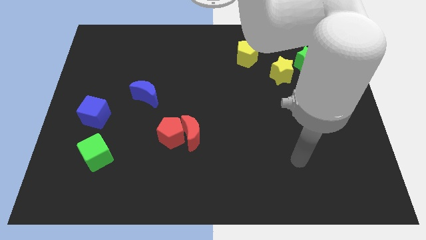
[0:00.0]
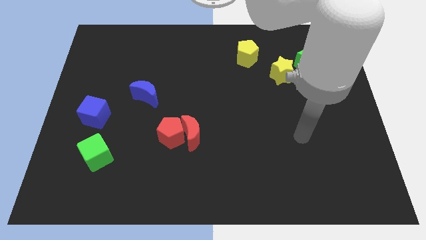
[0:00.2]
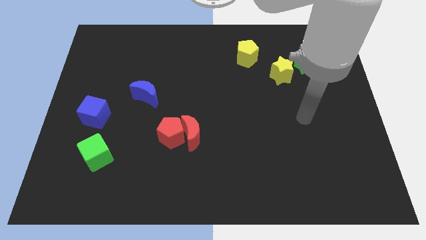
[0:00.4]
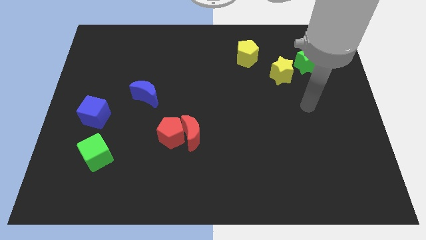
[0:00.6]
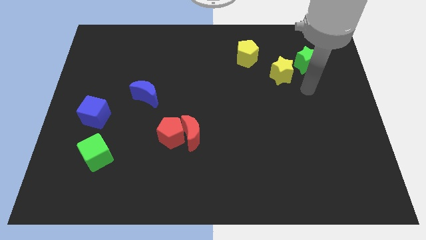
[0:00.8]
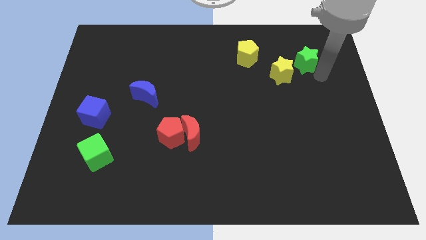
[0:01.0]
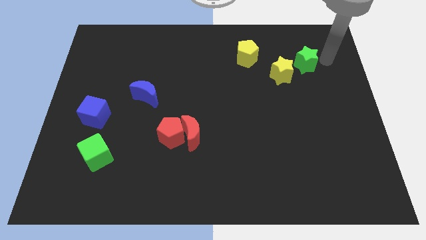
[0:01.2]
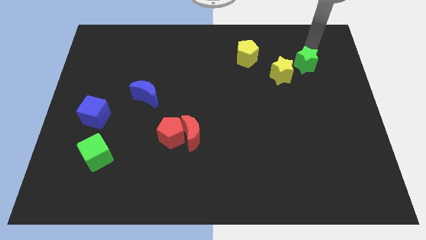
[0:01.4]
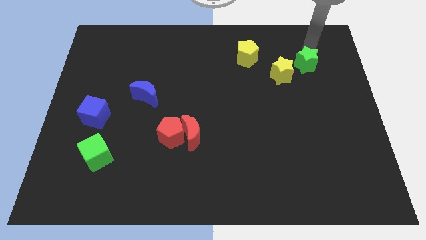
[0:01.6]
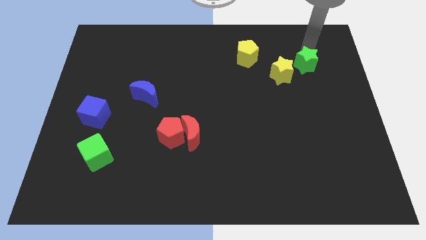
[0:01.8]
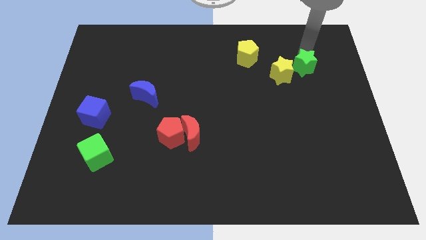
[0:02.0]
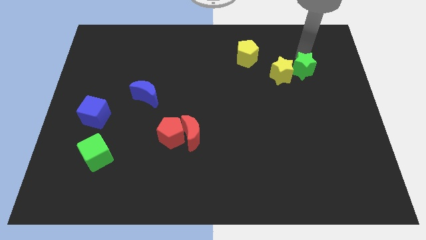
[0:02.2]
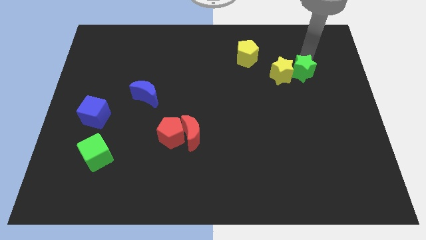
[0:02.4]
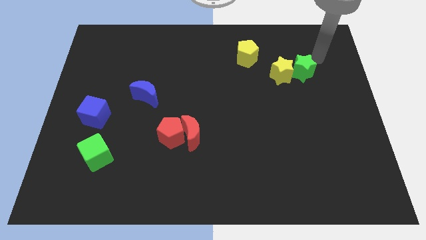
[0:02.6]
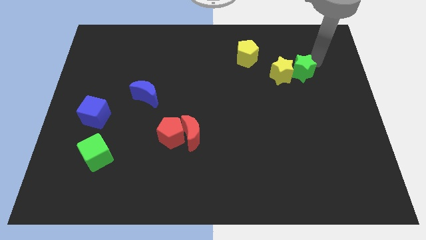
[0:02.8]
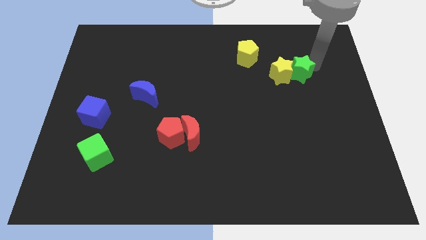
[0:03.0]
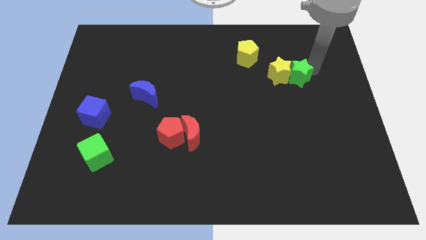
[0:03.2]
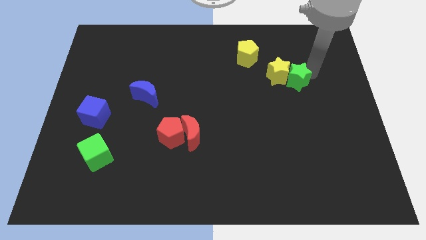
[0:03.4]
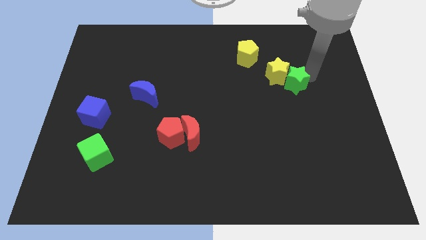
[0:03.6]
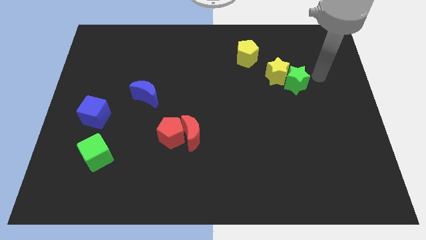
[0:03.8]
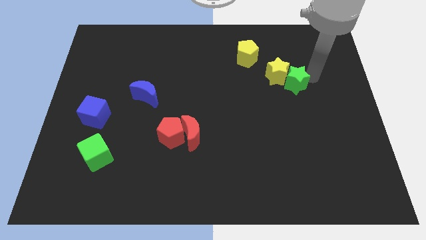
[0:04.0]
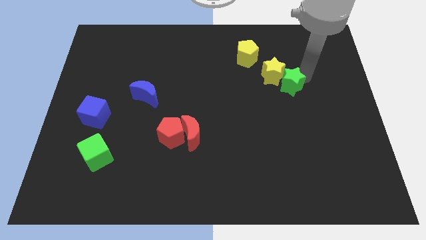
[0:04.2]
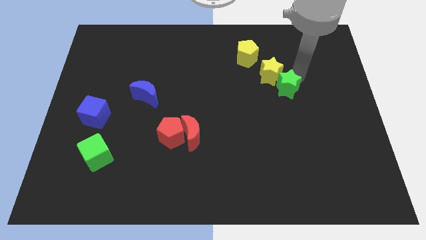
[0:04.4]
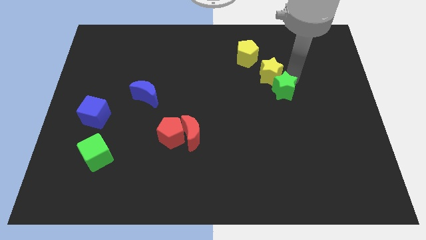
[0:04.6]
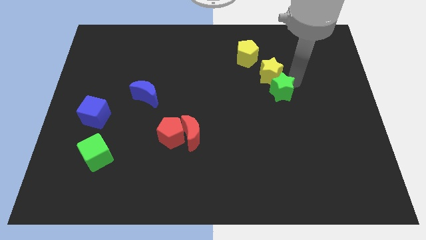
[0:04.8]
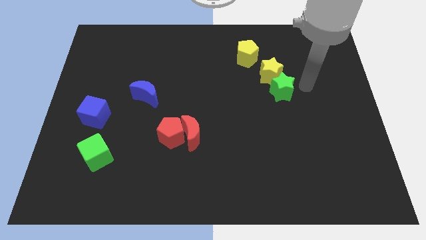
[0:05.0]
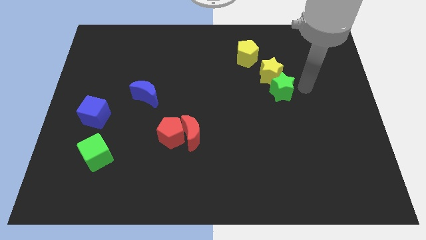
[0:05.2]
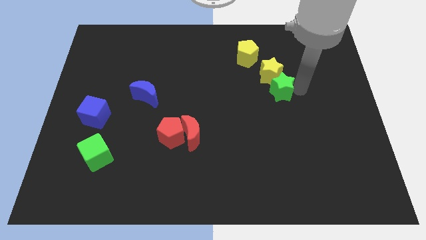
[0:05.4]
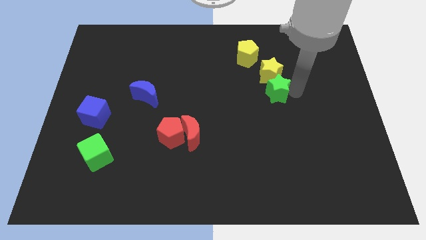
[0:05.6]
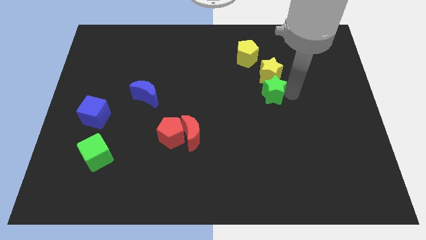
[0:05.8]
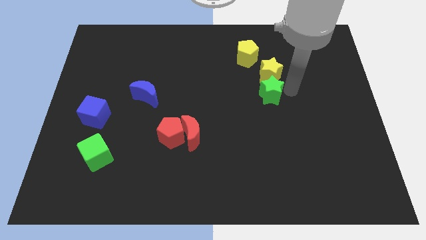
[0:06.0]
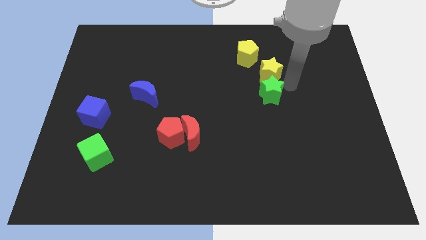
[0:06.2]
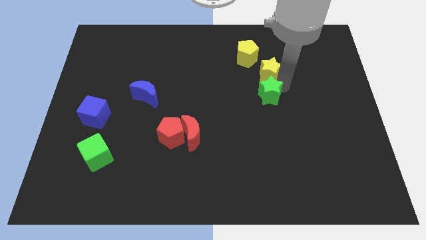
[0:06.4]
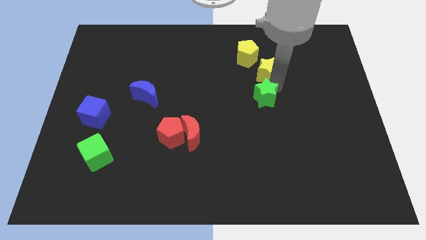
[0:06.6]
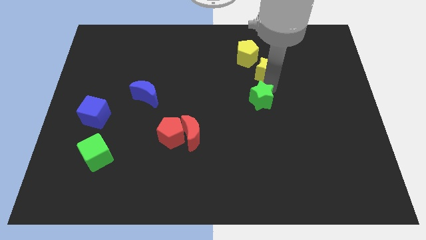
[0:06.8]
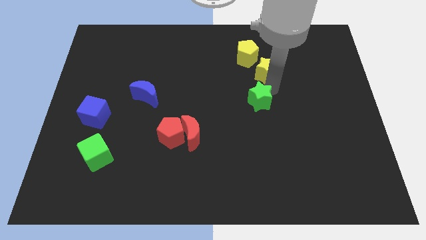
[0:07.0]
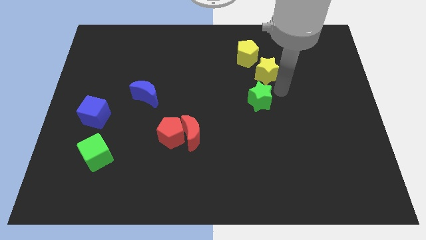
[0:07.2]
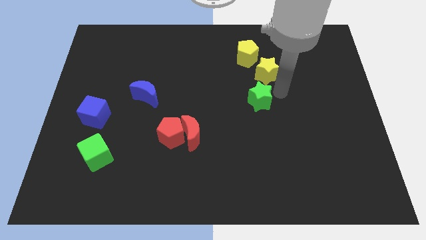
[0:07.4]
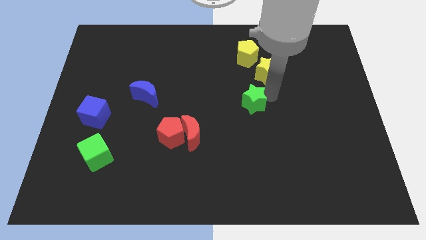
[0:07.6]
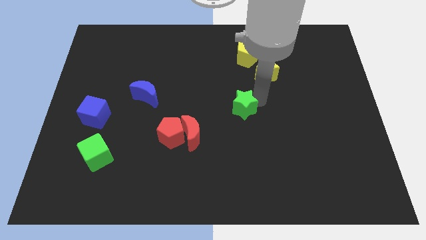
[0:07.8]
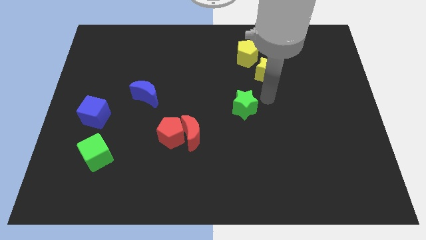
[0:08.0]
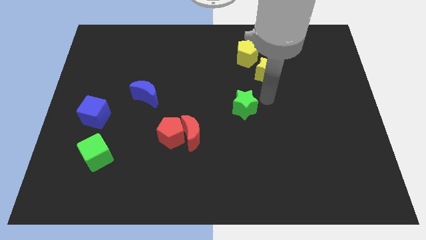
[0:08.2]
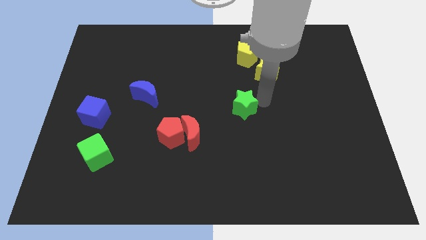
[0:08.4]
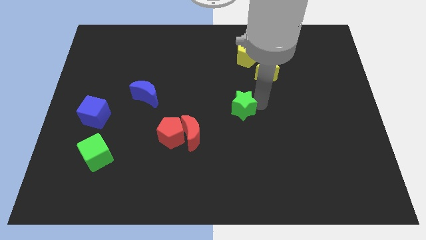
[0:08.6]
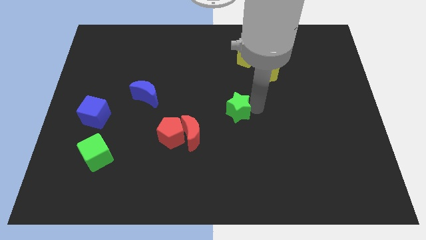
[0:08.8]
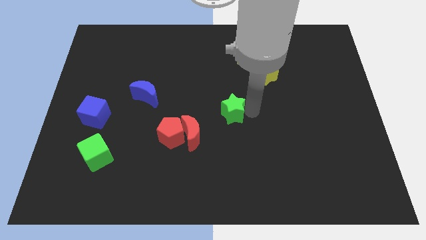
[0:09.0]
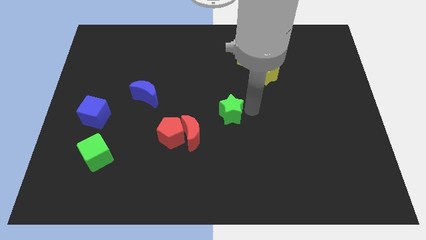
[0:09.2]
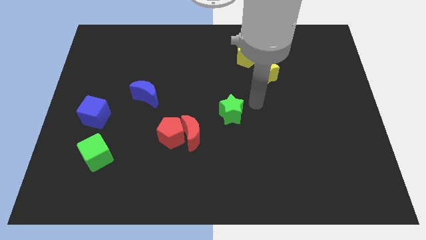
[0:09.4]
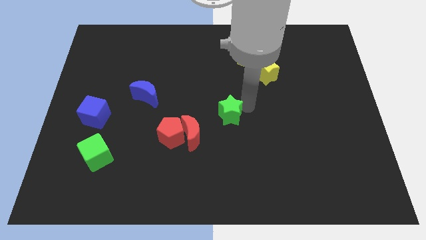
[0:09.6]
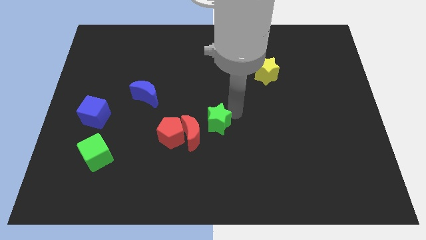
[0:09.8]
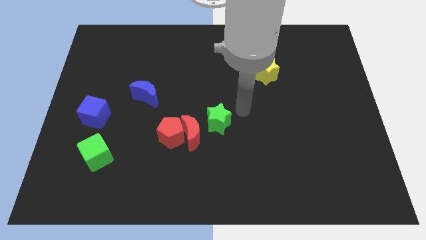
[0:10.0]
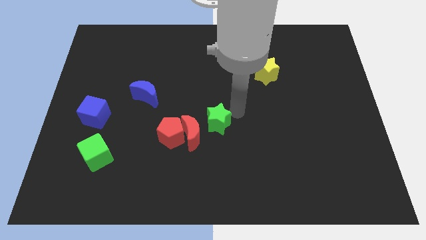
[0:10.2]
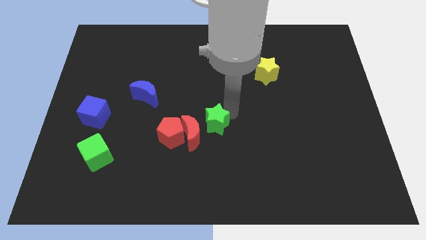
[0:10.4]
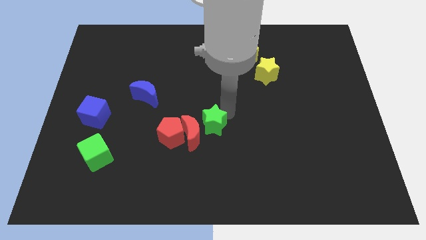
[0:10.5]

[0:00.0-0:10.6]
push the green star next to the red moon

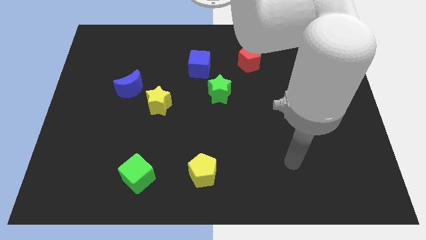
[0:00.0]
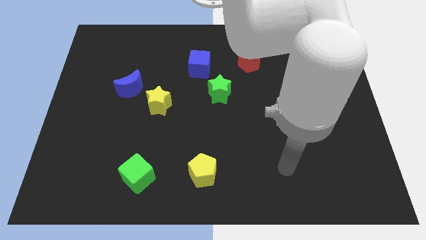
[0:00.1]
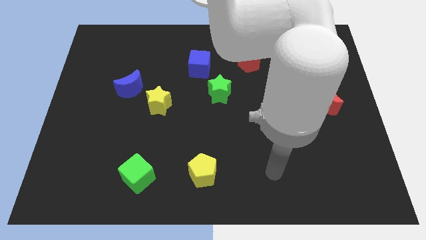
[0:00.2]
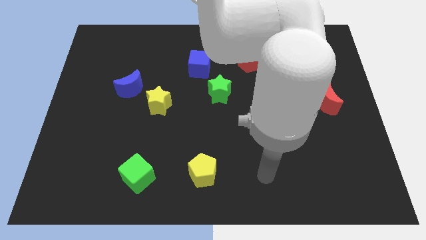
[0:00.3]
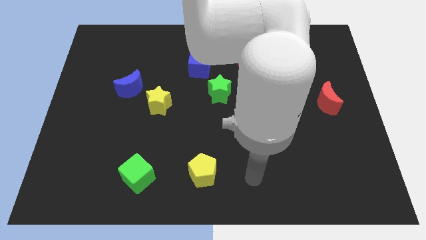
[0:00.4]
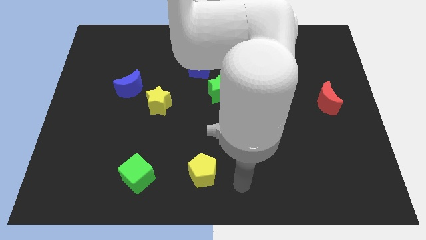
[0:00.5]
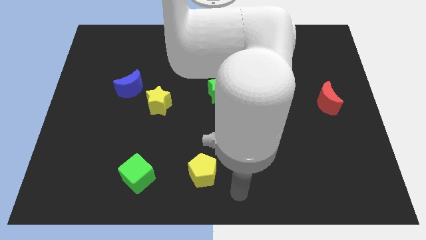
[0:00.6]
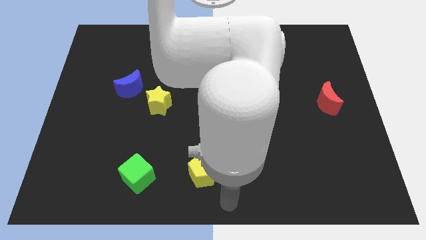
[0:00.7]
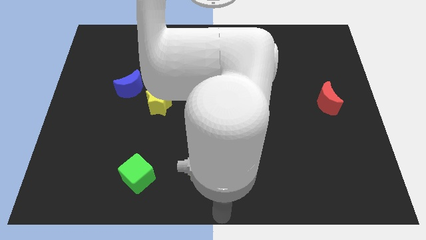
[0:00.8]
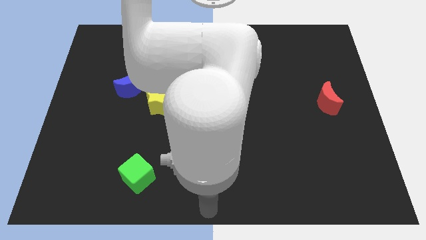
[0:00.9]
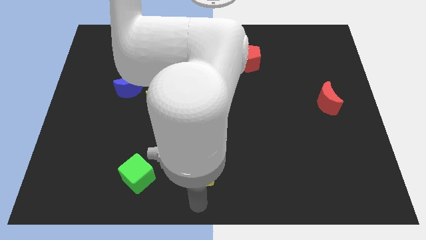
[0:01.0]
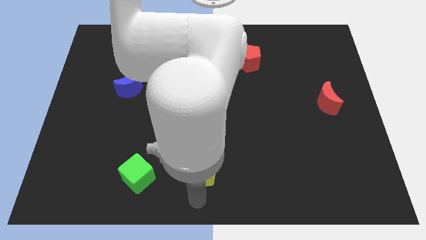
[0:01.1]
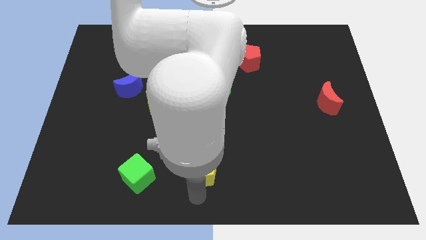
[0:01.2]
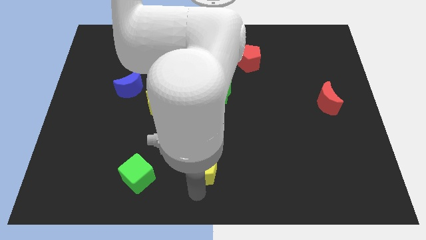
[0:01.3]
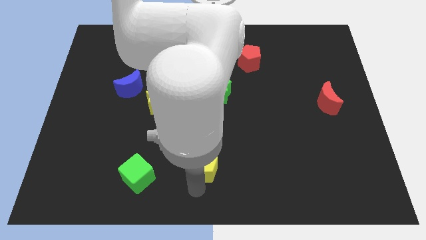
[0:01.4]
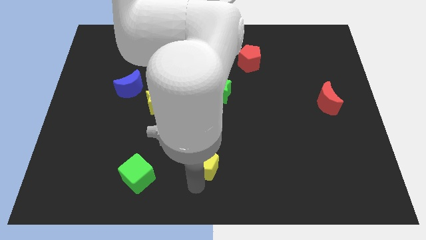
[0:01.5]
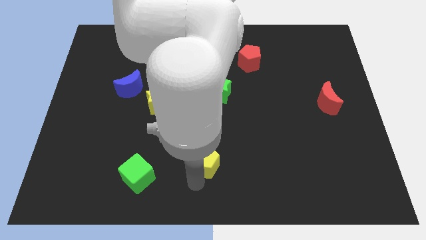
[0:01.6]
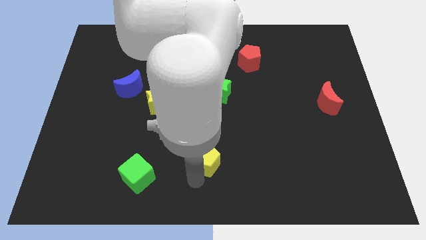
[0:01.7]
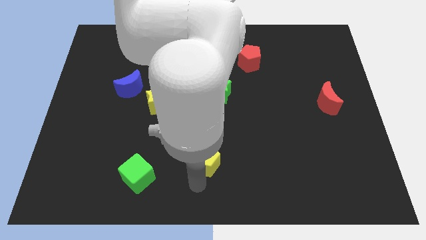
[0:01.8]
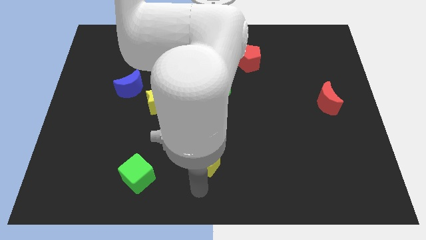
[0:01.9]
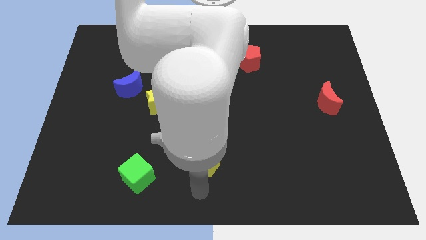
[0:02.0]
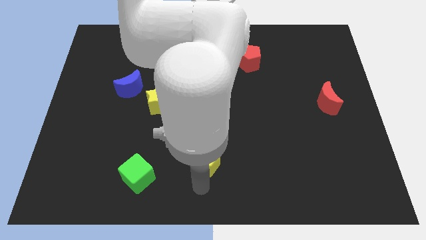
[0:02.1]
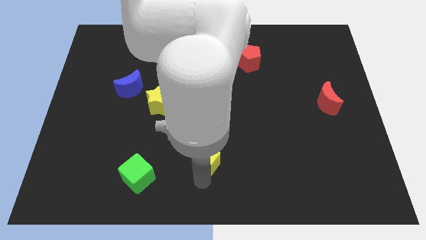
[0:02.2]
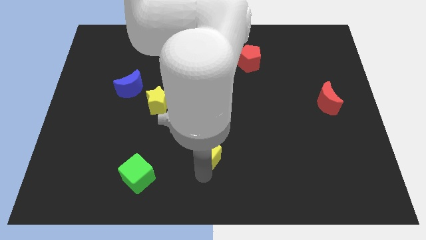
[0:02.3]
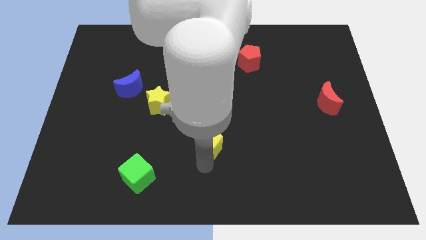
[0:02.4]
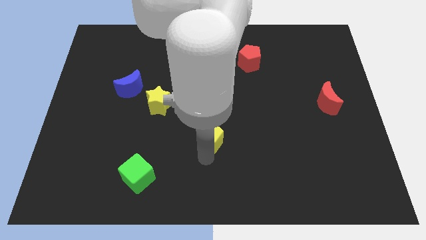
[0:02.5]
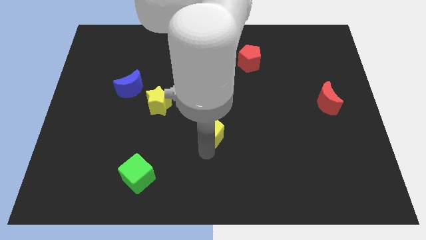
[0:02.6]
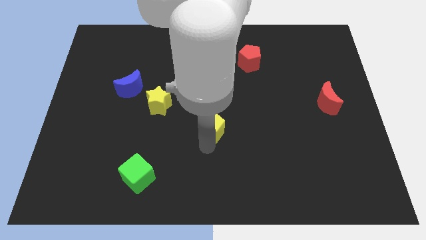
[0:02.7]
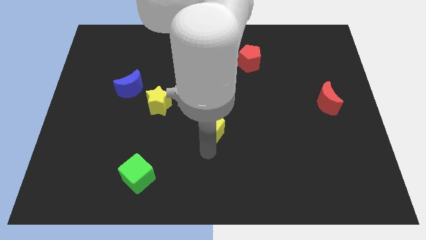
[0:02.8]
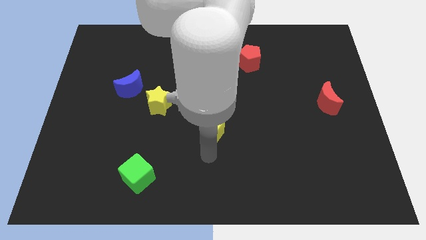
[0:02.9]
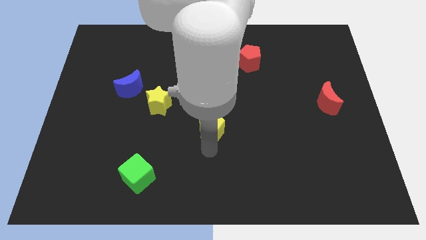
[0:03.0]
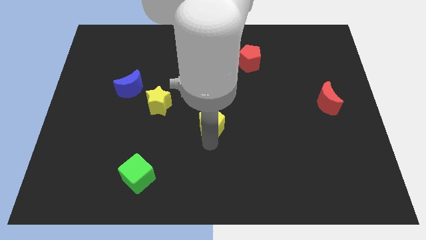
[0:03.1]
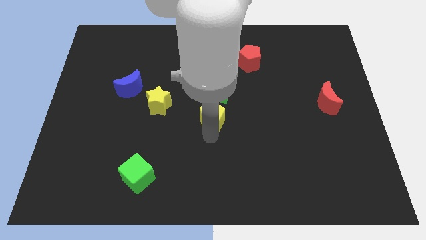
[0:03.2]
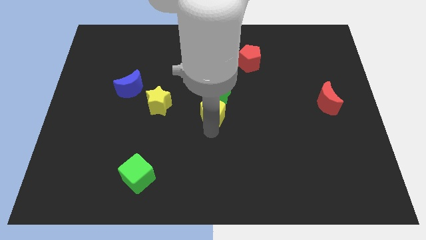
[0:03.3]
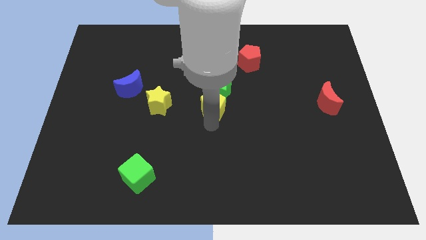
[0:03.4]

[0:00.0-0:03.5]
move the yellow pentagon towards the green star
